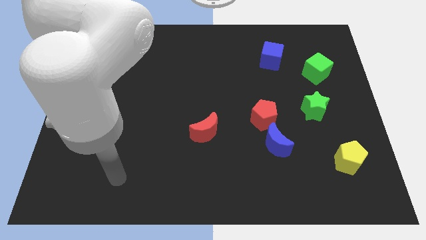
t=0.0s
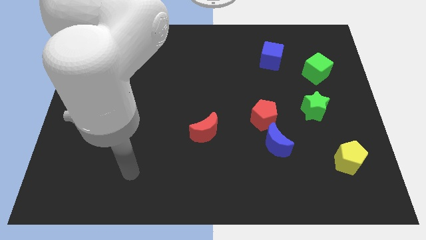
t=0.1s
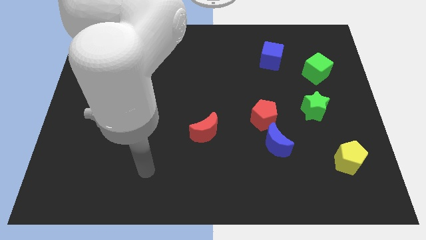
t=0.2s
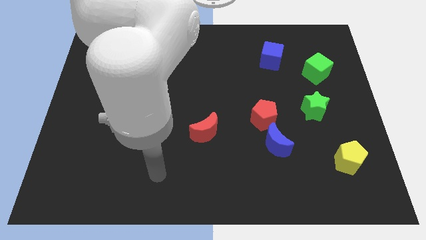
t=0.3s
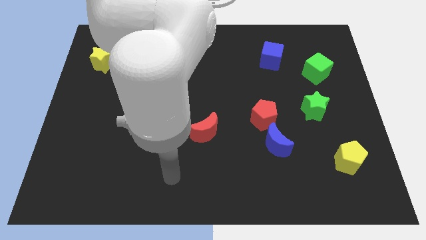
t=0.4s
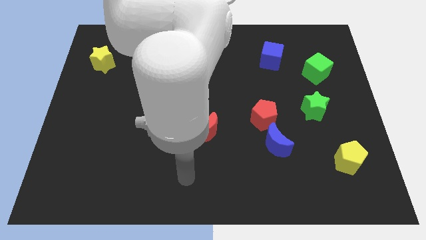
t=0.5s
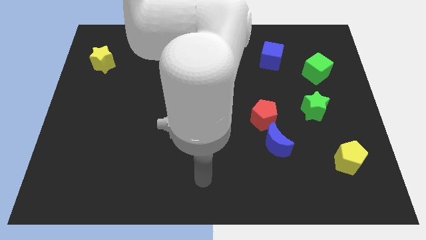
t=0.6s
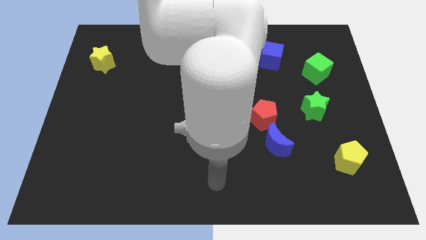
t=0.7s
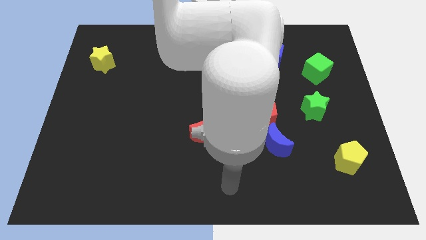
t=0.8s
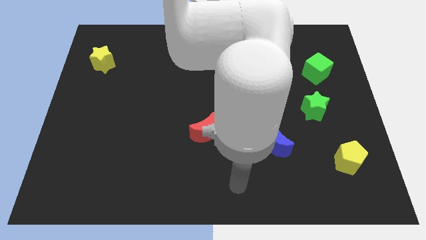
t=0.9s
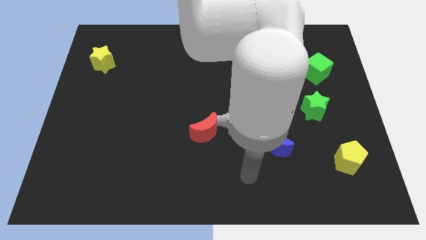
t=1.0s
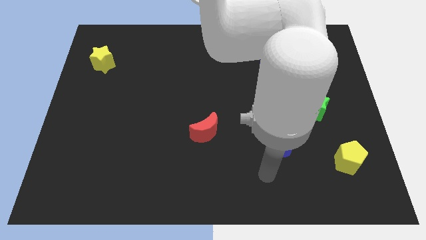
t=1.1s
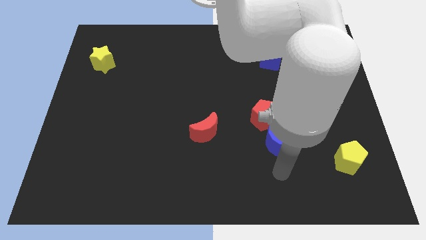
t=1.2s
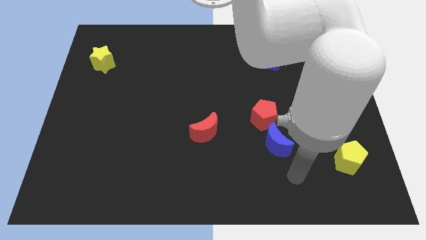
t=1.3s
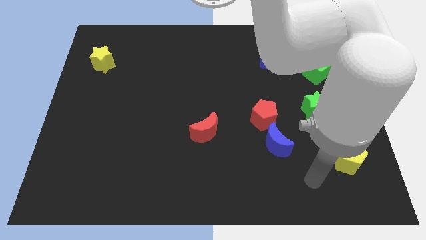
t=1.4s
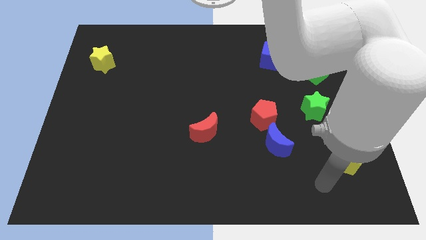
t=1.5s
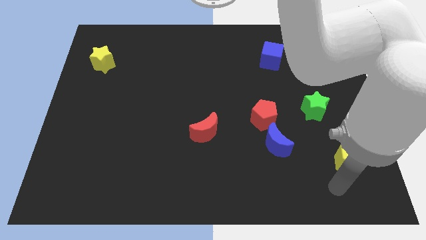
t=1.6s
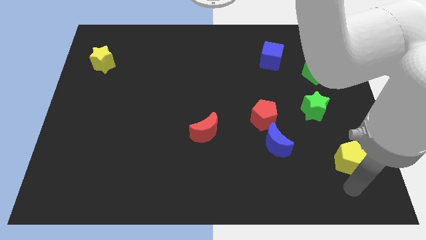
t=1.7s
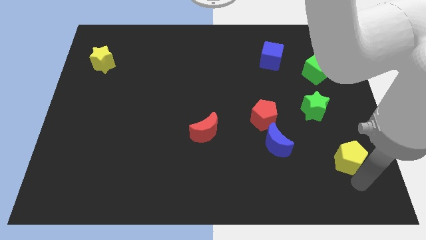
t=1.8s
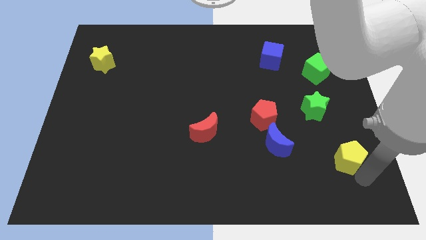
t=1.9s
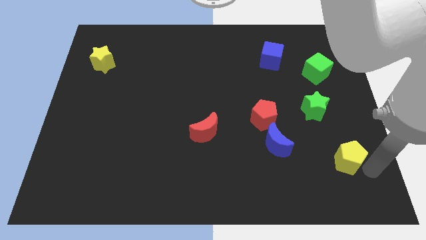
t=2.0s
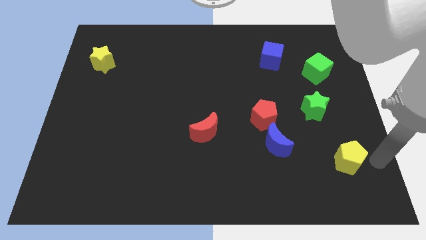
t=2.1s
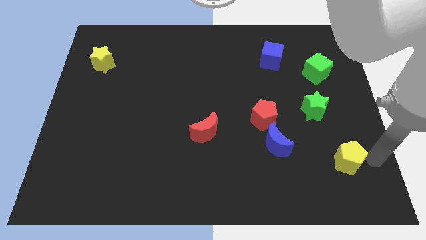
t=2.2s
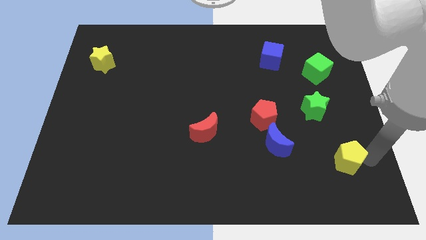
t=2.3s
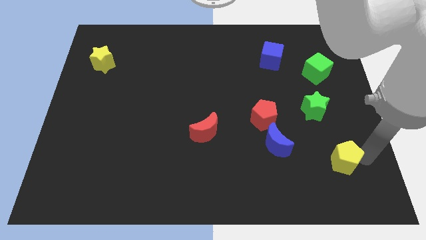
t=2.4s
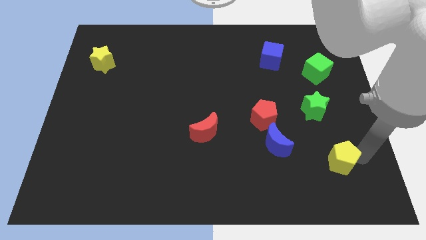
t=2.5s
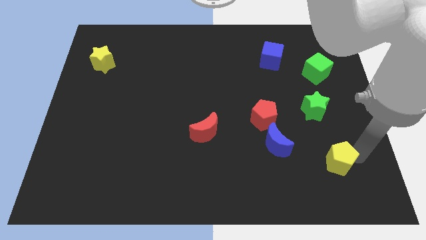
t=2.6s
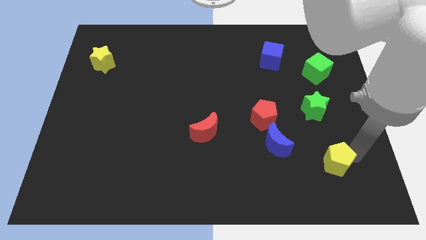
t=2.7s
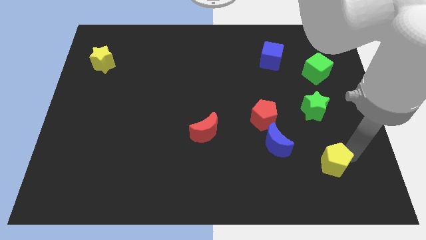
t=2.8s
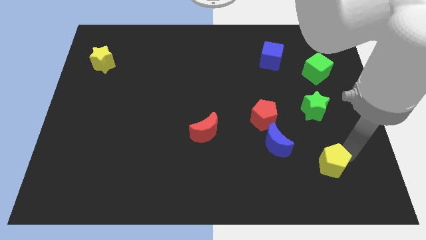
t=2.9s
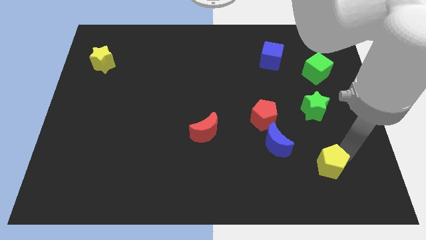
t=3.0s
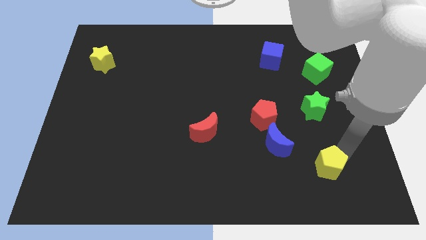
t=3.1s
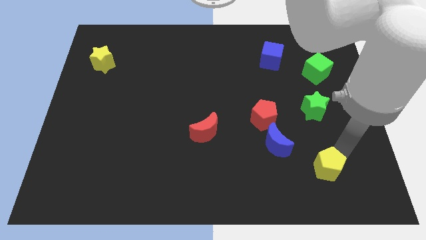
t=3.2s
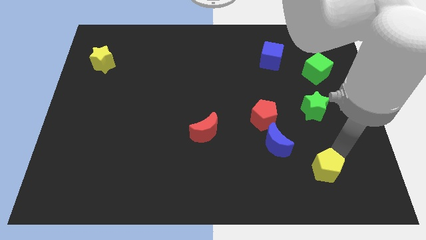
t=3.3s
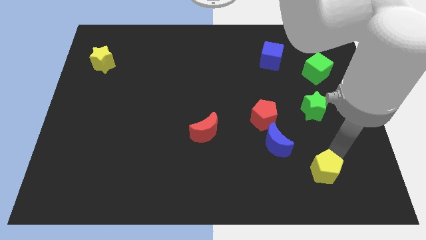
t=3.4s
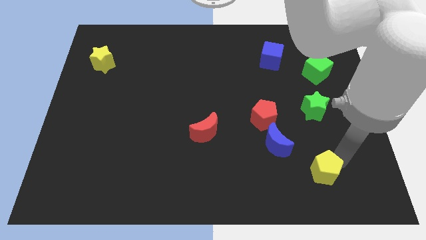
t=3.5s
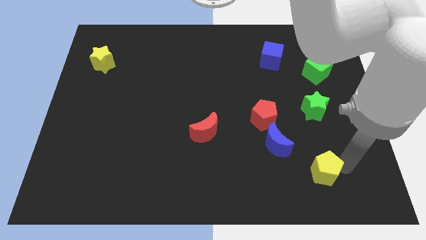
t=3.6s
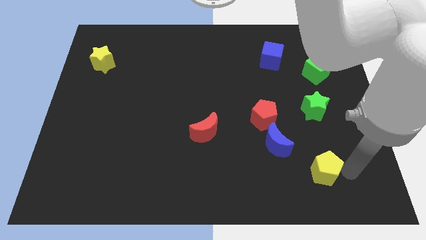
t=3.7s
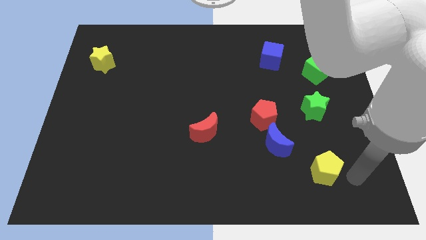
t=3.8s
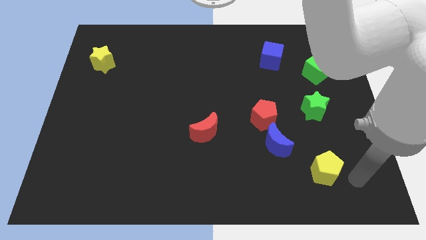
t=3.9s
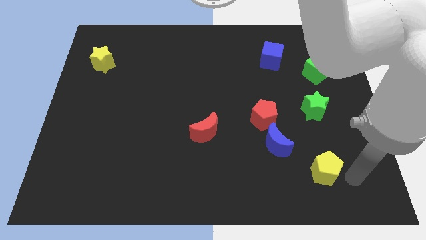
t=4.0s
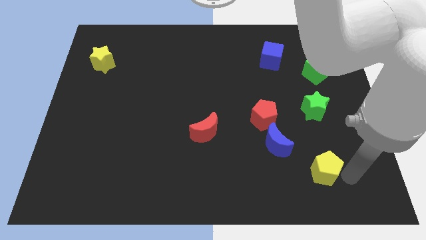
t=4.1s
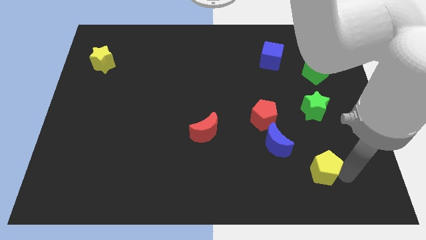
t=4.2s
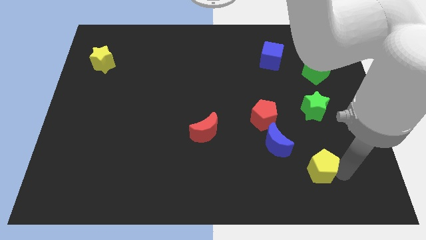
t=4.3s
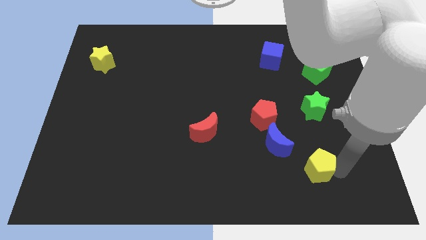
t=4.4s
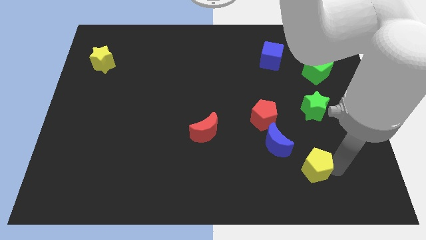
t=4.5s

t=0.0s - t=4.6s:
push the yellow pentagon to the left a little

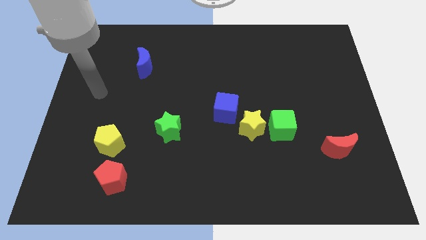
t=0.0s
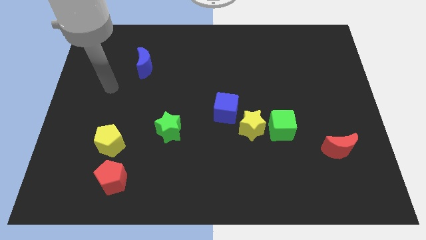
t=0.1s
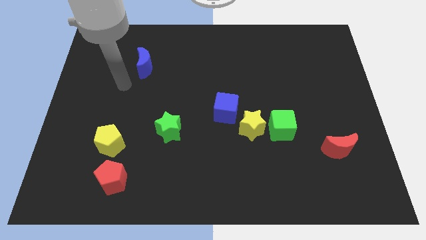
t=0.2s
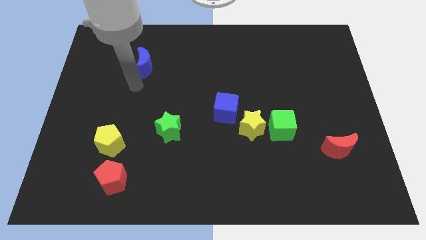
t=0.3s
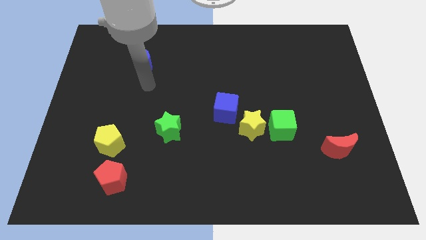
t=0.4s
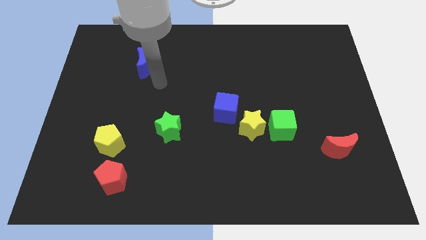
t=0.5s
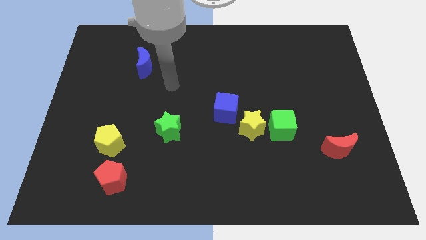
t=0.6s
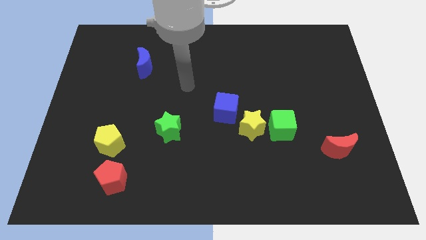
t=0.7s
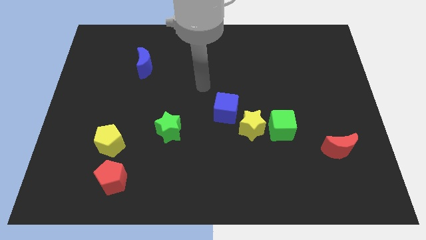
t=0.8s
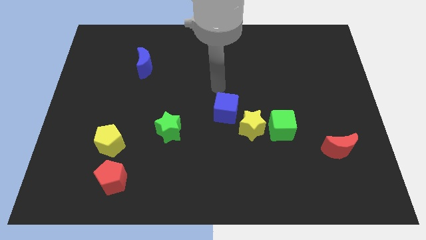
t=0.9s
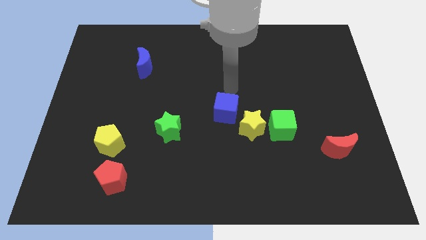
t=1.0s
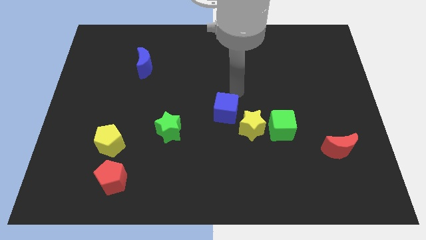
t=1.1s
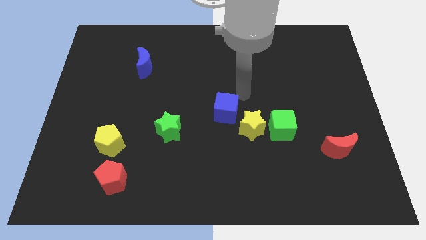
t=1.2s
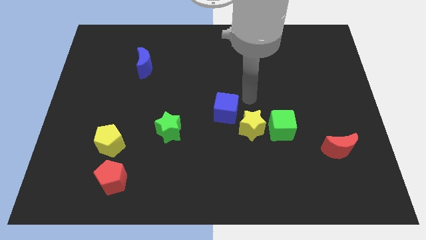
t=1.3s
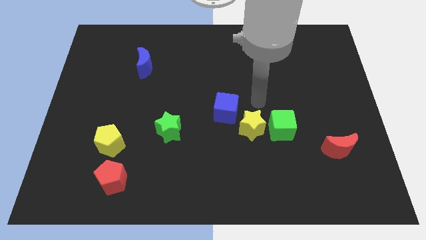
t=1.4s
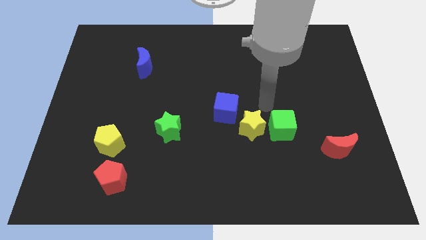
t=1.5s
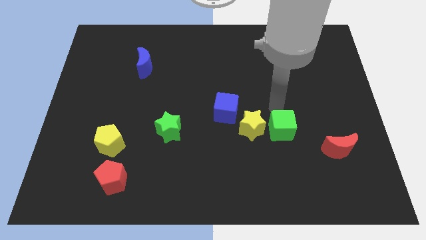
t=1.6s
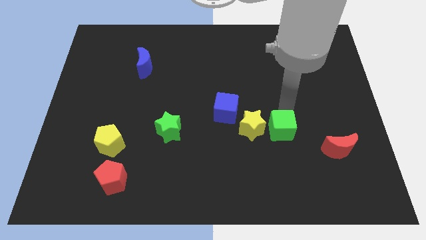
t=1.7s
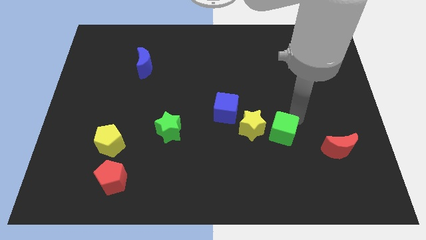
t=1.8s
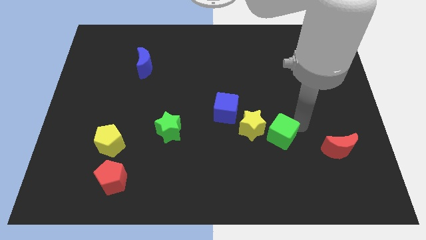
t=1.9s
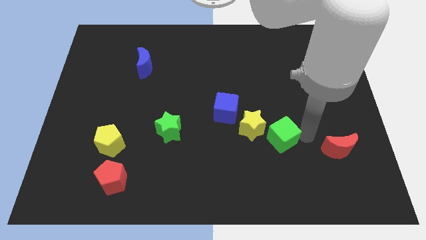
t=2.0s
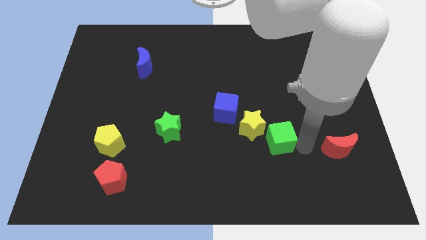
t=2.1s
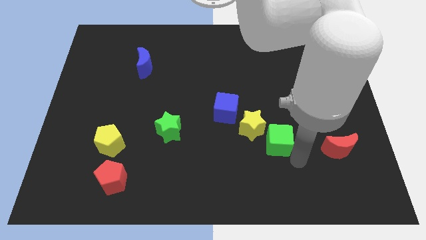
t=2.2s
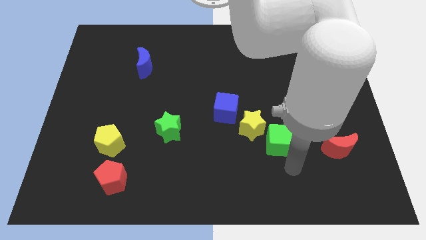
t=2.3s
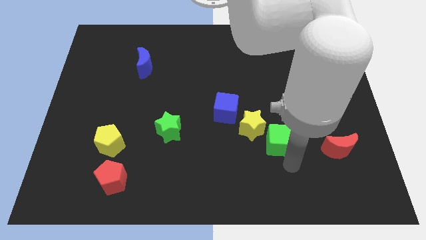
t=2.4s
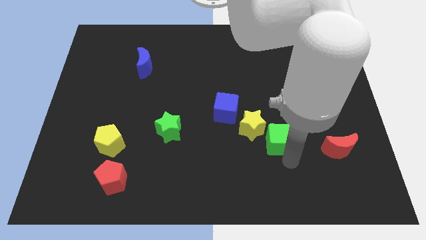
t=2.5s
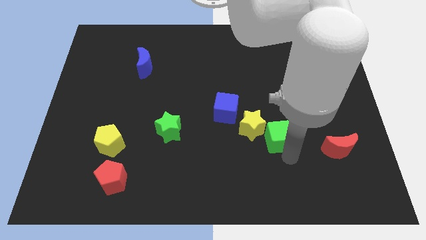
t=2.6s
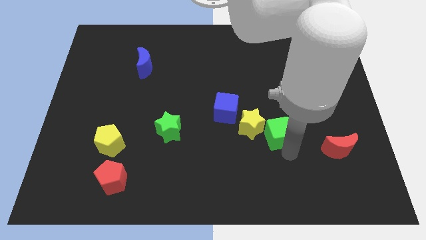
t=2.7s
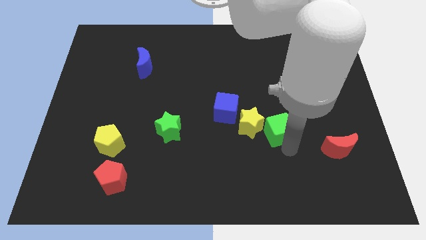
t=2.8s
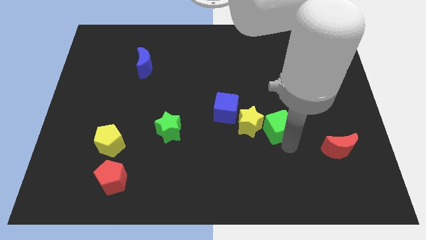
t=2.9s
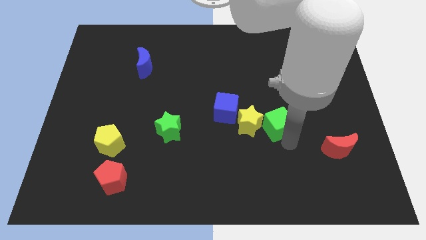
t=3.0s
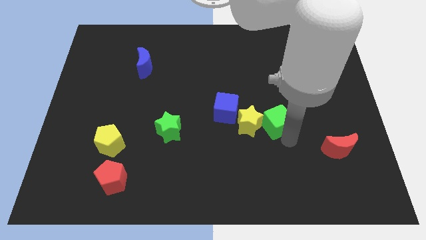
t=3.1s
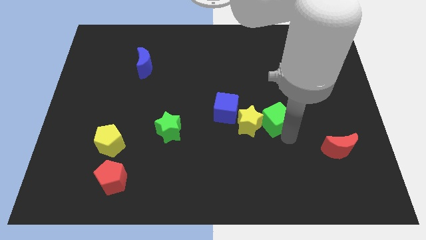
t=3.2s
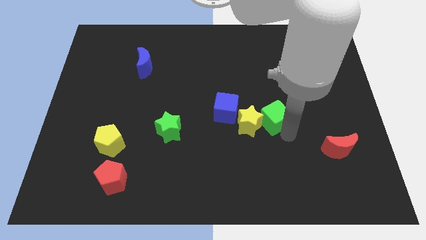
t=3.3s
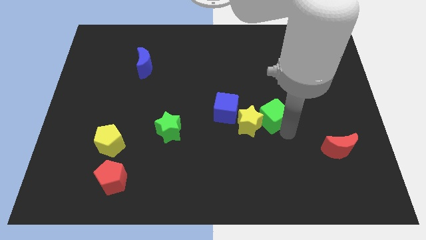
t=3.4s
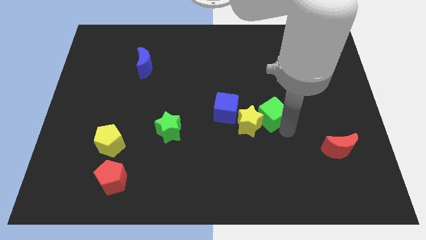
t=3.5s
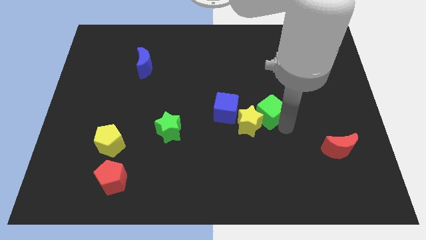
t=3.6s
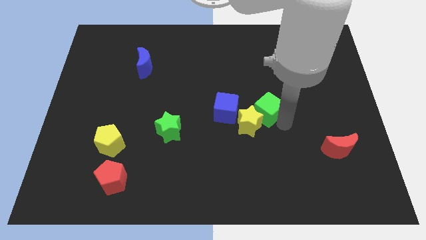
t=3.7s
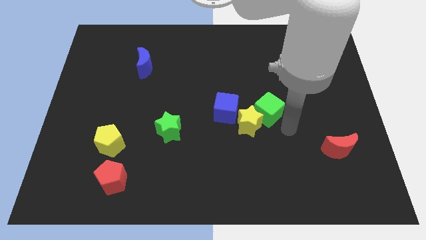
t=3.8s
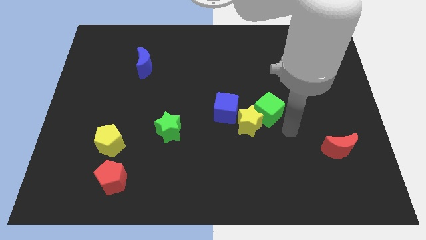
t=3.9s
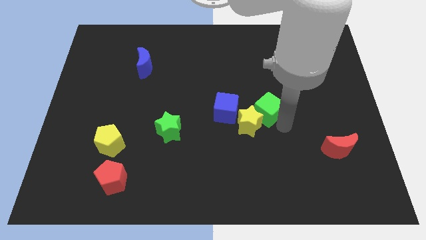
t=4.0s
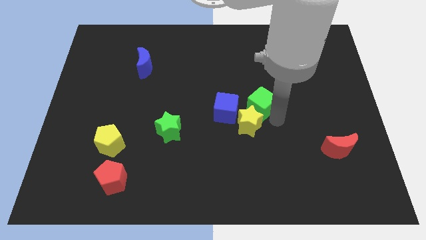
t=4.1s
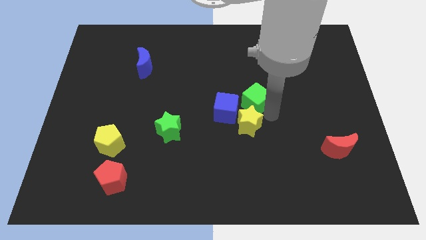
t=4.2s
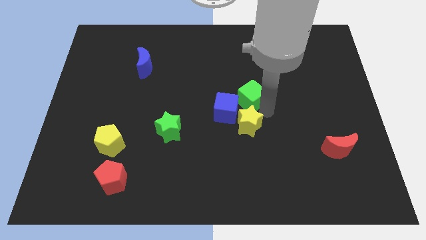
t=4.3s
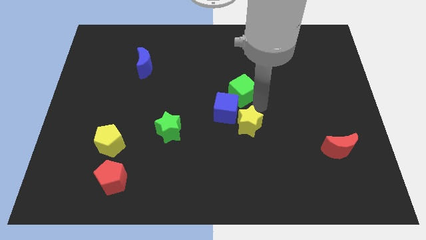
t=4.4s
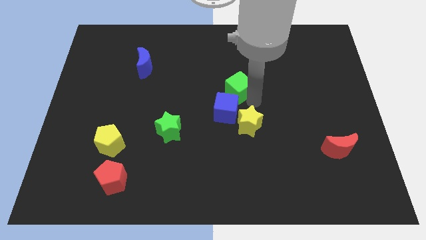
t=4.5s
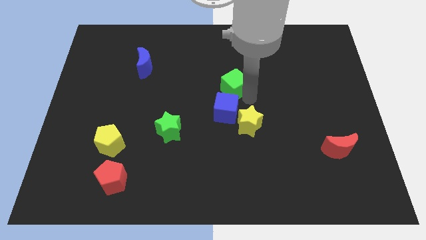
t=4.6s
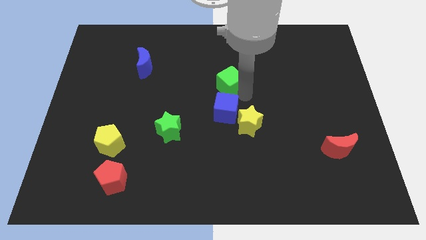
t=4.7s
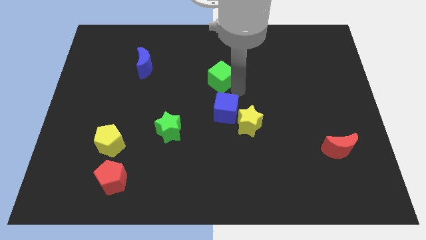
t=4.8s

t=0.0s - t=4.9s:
slide the green cube upwards and to the left diagonally
